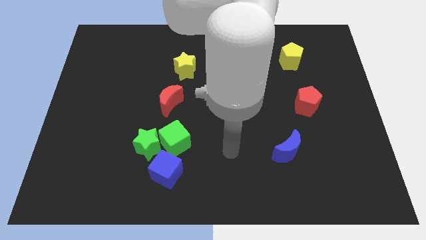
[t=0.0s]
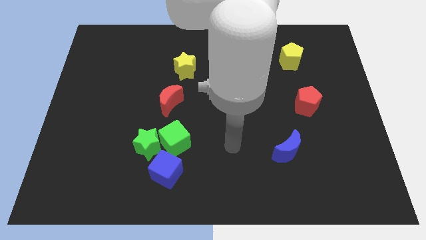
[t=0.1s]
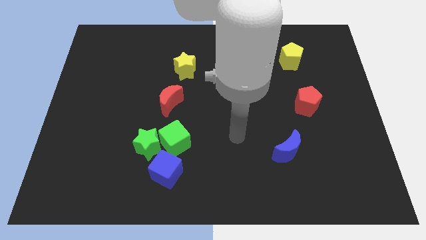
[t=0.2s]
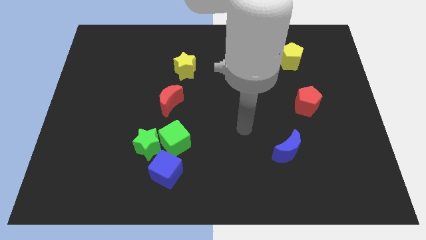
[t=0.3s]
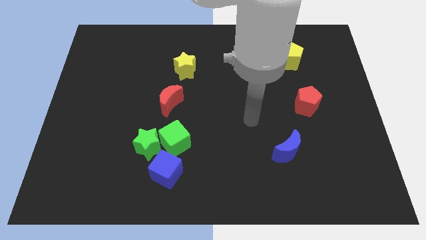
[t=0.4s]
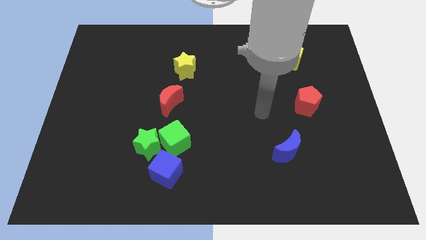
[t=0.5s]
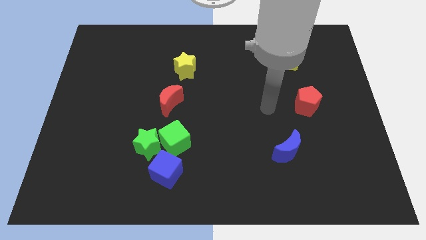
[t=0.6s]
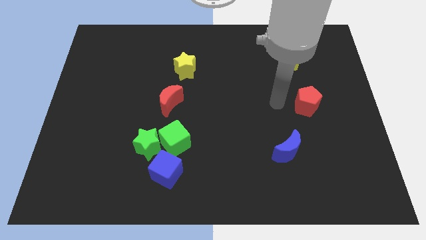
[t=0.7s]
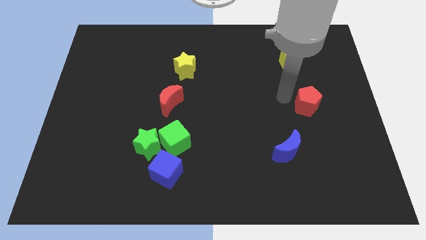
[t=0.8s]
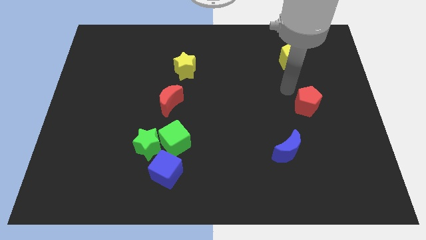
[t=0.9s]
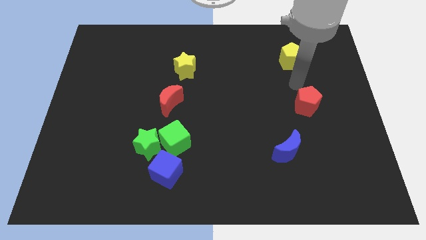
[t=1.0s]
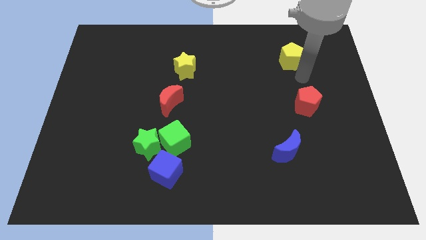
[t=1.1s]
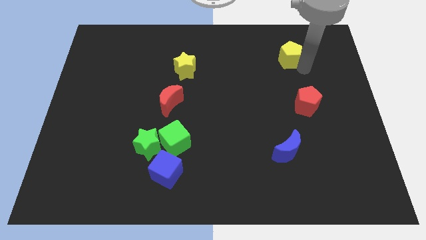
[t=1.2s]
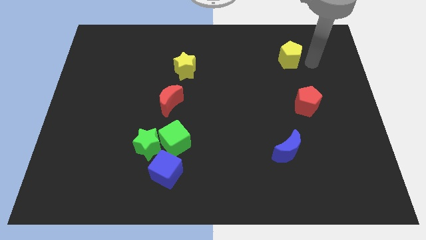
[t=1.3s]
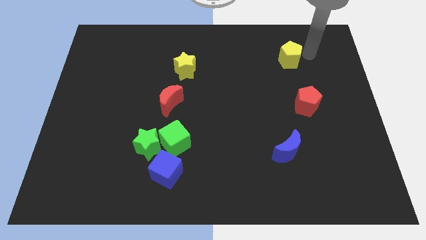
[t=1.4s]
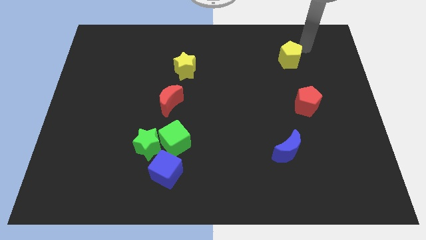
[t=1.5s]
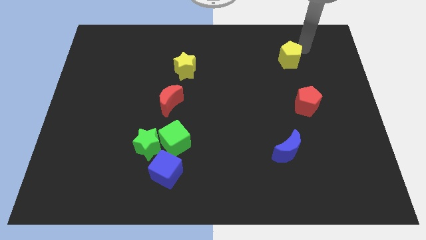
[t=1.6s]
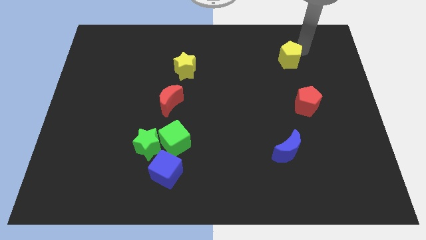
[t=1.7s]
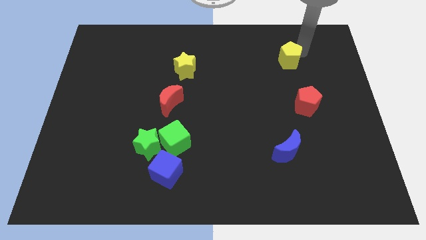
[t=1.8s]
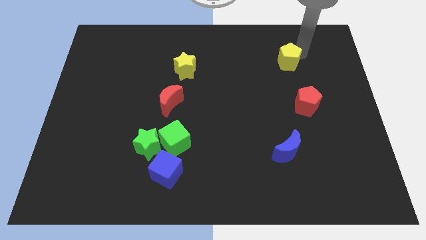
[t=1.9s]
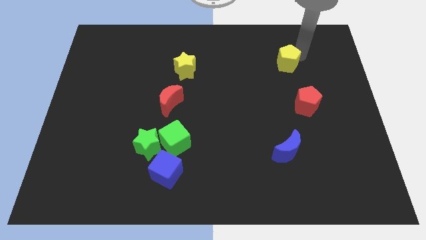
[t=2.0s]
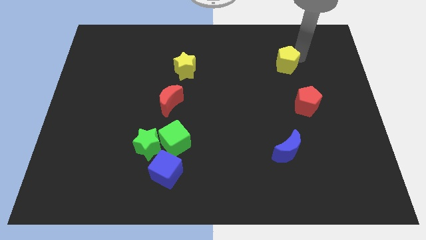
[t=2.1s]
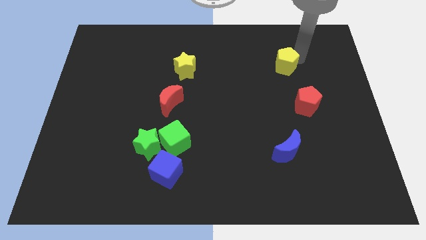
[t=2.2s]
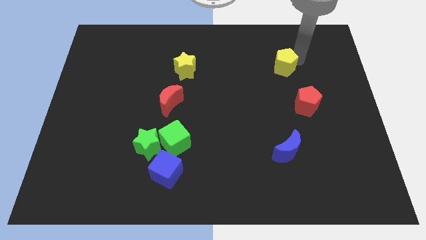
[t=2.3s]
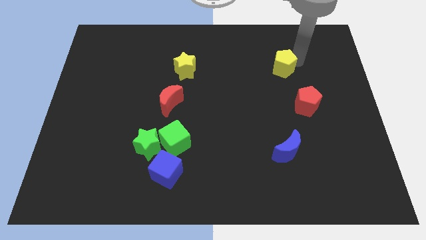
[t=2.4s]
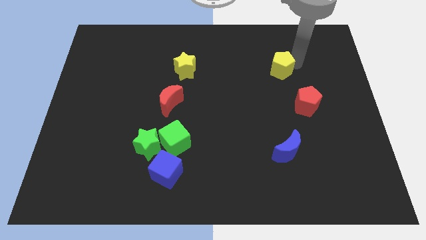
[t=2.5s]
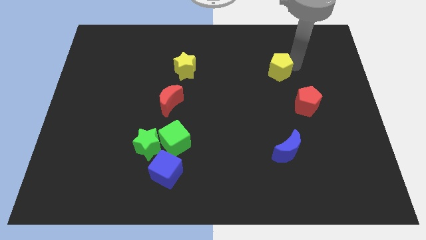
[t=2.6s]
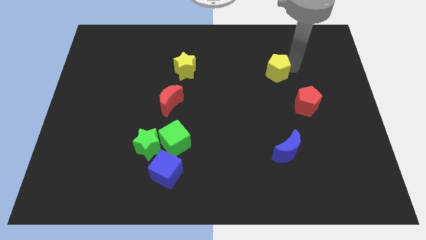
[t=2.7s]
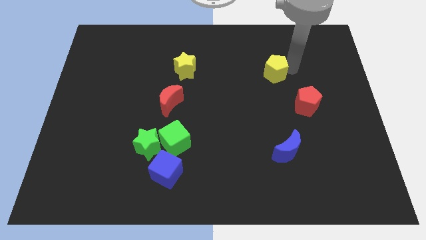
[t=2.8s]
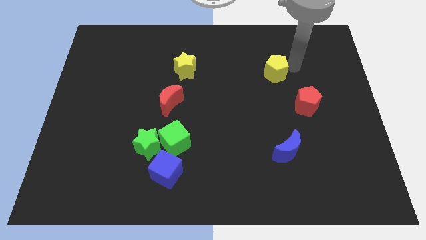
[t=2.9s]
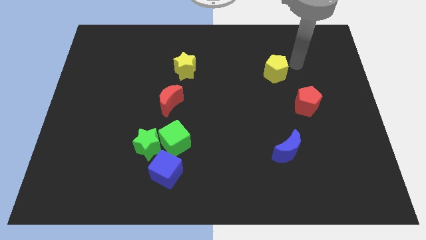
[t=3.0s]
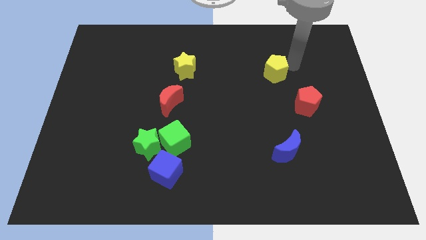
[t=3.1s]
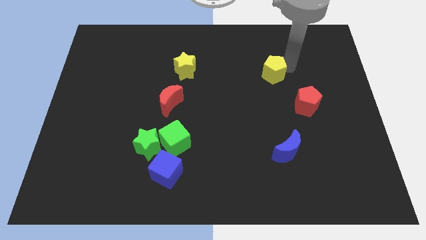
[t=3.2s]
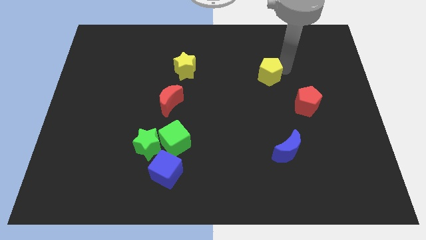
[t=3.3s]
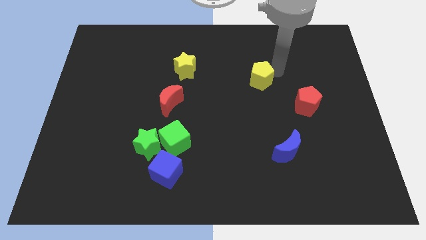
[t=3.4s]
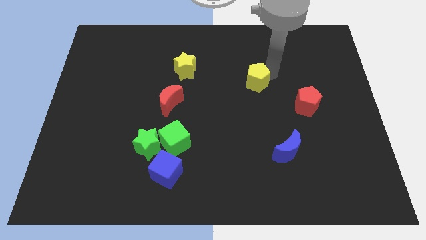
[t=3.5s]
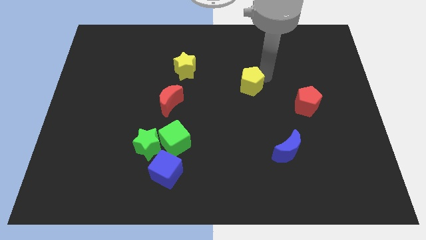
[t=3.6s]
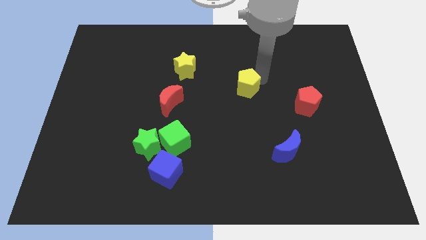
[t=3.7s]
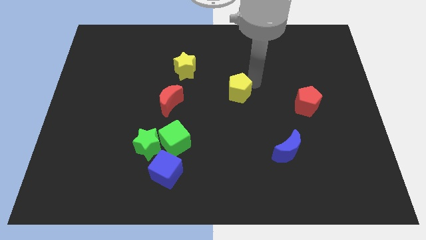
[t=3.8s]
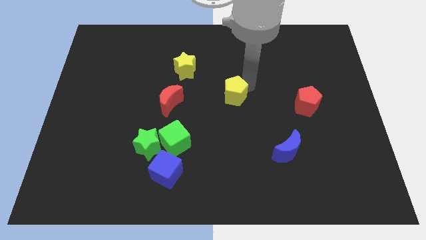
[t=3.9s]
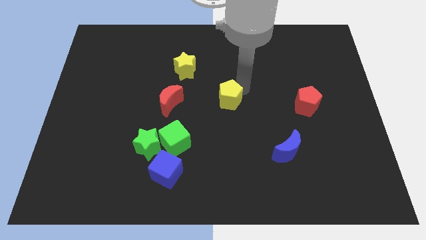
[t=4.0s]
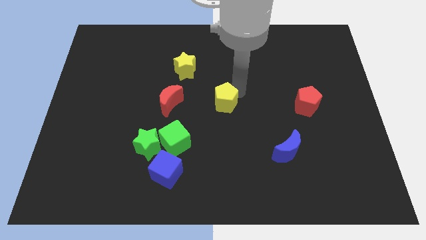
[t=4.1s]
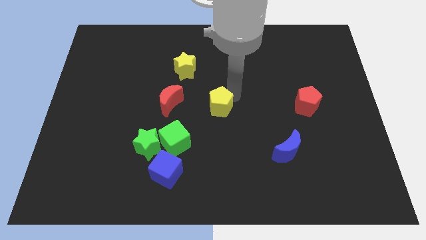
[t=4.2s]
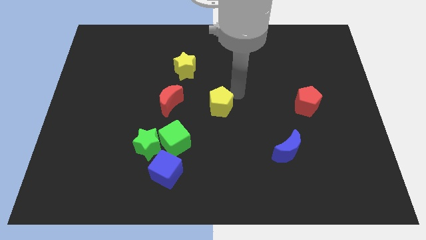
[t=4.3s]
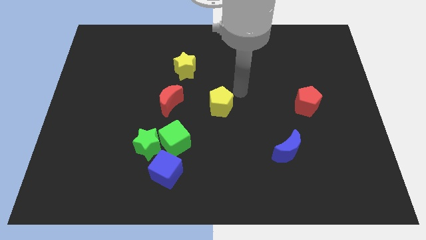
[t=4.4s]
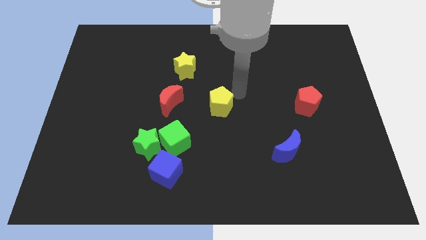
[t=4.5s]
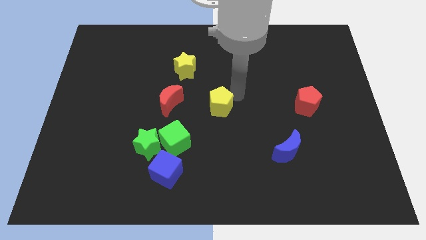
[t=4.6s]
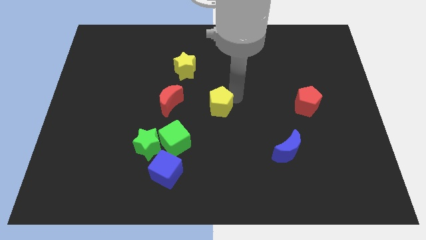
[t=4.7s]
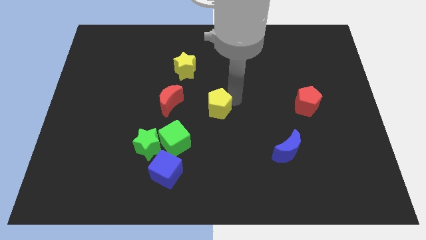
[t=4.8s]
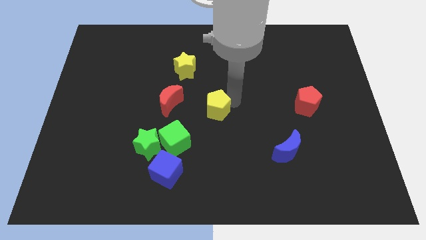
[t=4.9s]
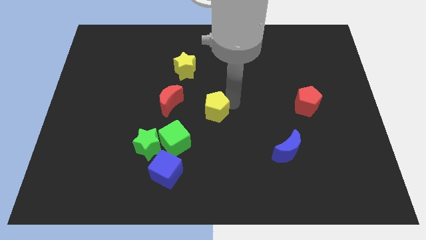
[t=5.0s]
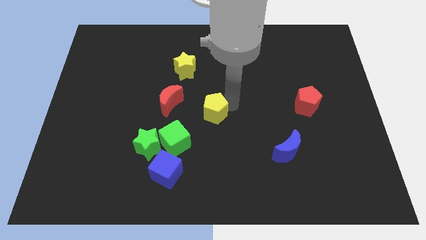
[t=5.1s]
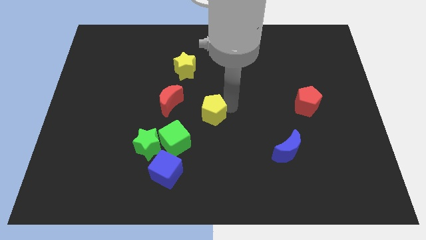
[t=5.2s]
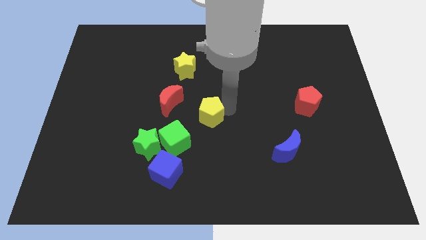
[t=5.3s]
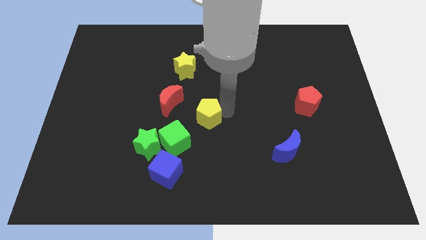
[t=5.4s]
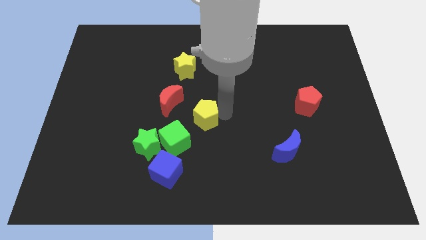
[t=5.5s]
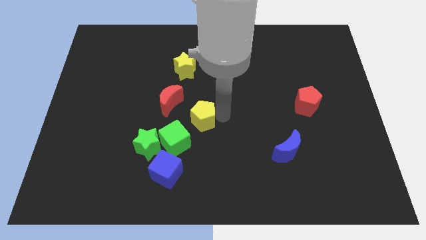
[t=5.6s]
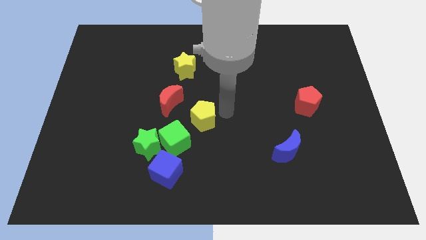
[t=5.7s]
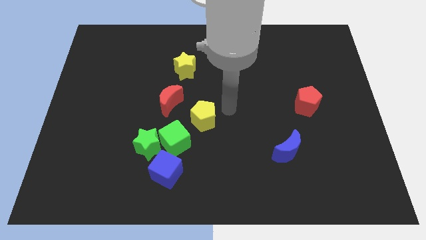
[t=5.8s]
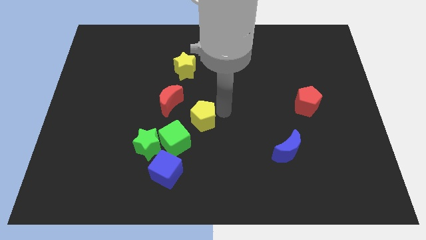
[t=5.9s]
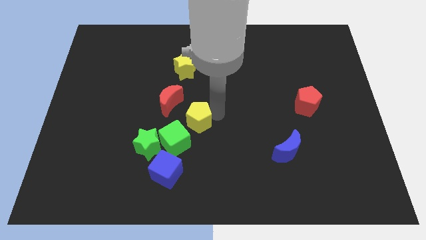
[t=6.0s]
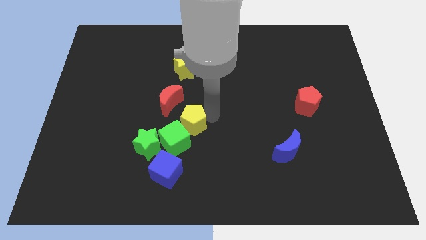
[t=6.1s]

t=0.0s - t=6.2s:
put the yellow pentagon to the green cube
